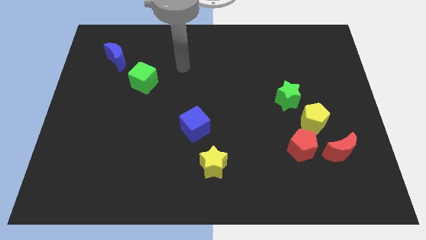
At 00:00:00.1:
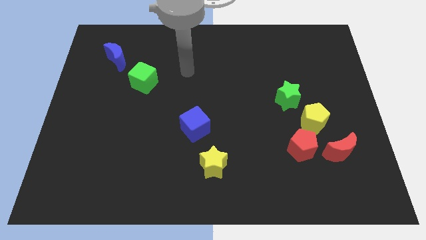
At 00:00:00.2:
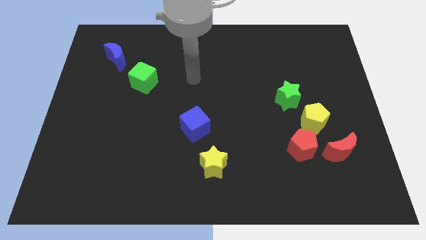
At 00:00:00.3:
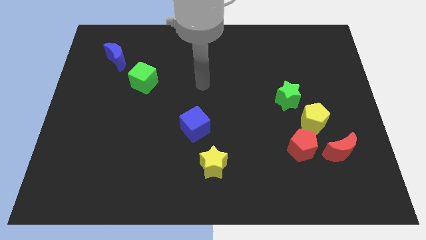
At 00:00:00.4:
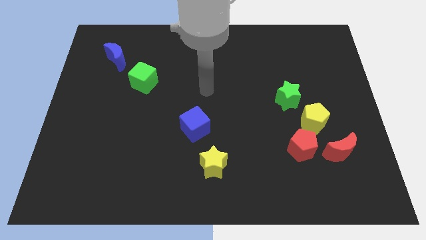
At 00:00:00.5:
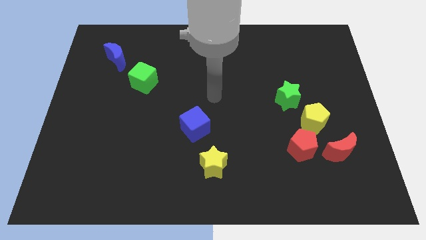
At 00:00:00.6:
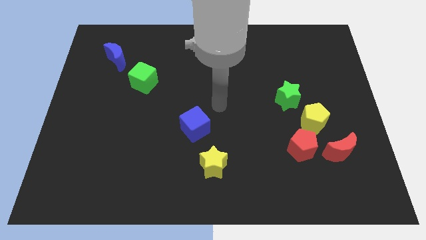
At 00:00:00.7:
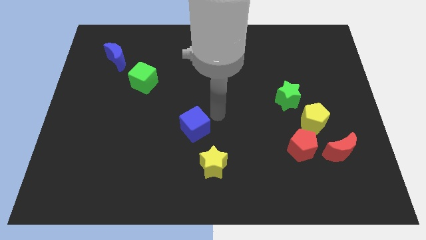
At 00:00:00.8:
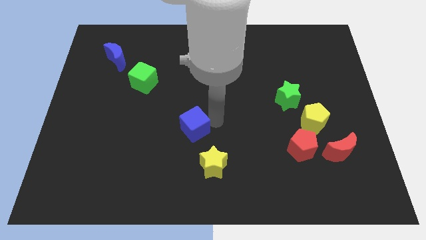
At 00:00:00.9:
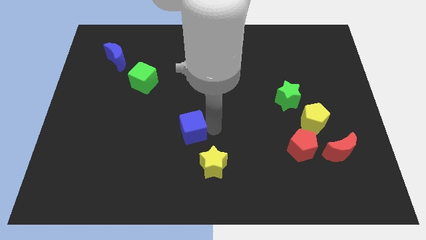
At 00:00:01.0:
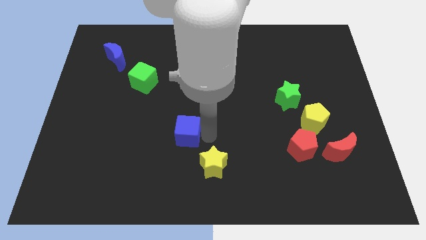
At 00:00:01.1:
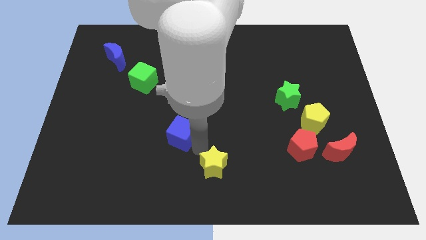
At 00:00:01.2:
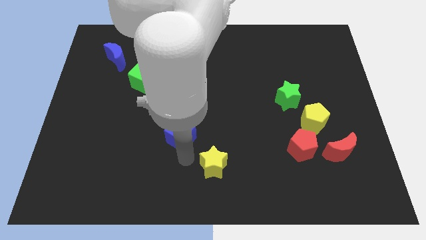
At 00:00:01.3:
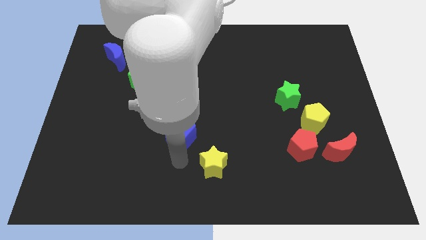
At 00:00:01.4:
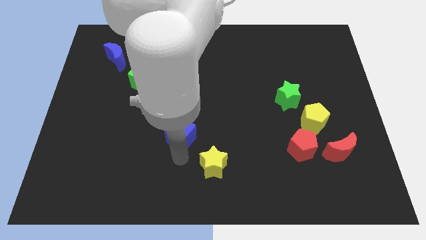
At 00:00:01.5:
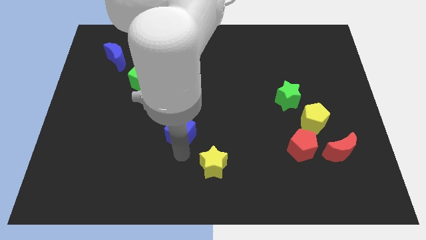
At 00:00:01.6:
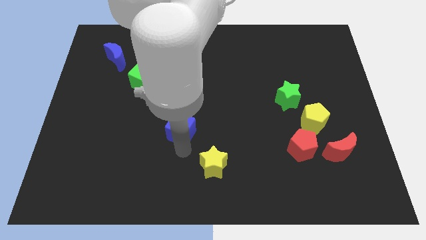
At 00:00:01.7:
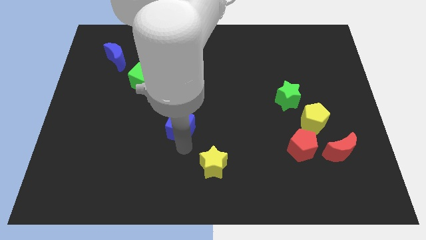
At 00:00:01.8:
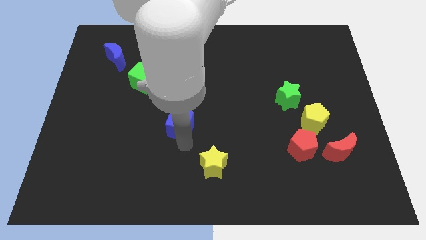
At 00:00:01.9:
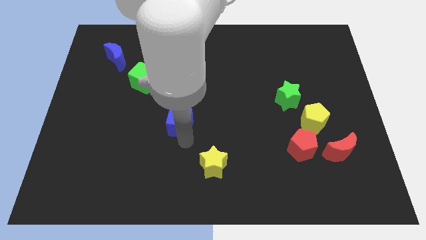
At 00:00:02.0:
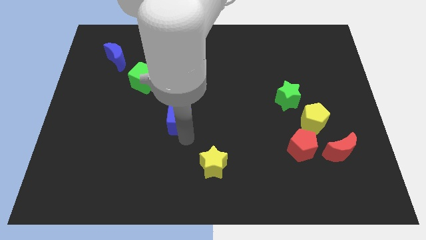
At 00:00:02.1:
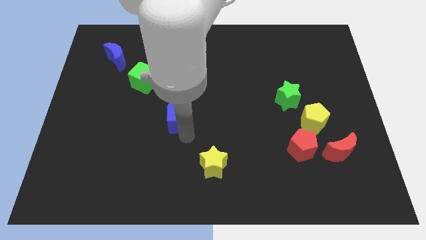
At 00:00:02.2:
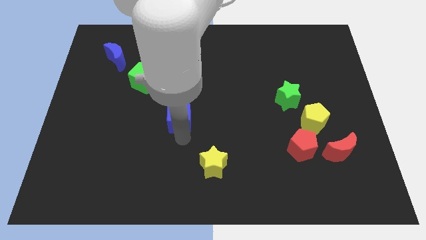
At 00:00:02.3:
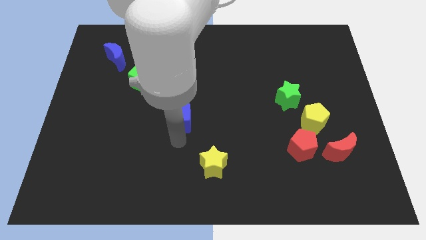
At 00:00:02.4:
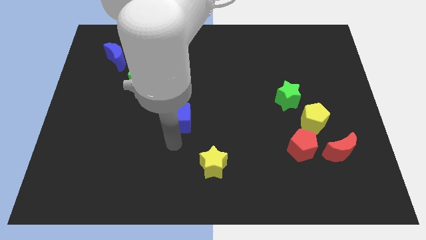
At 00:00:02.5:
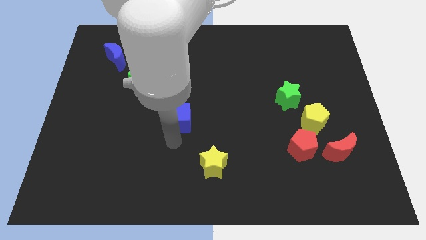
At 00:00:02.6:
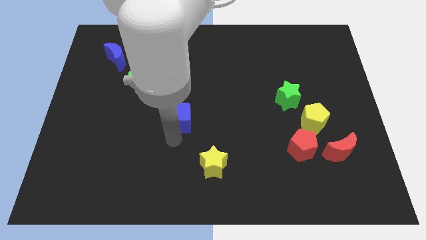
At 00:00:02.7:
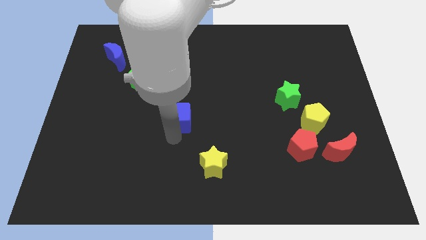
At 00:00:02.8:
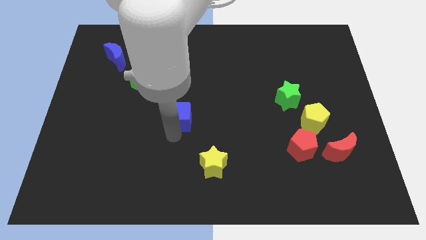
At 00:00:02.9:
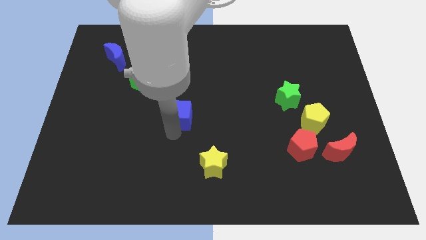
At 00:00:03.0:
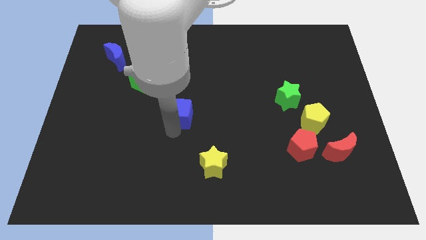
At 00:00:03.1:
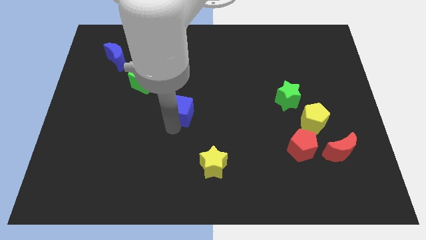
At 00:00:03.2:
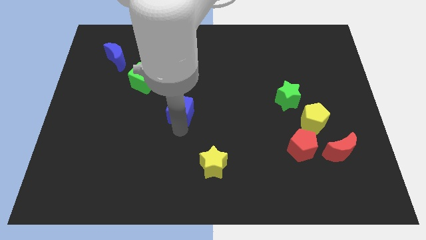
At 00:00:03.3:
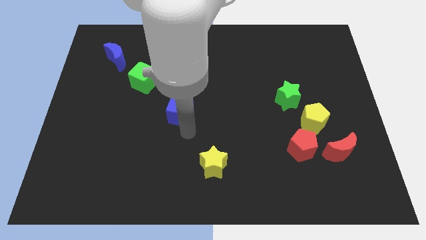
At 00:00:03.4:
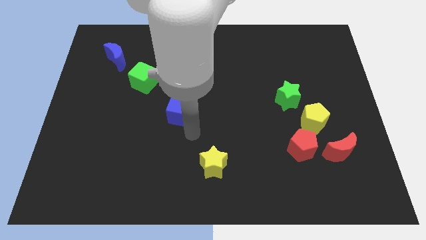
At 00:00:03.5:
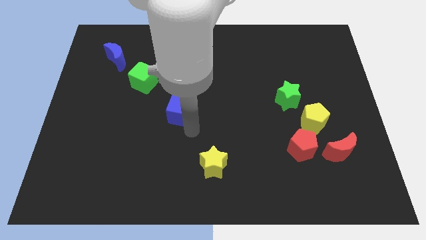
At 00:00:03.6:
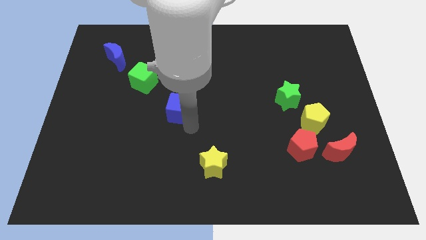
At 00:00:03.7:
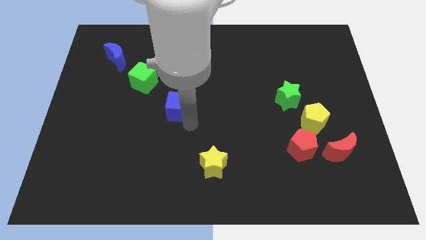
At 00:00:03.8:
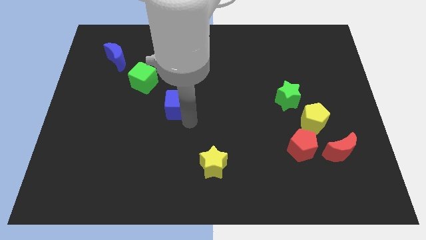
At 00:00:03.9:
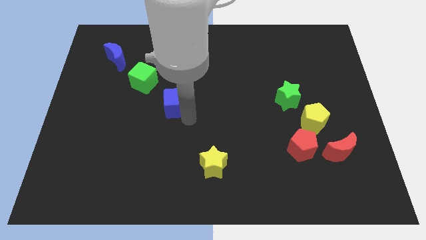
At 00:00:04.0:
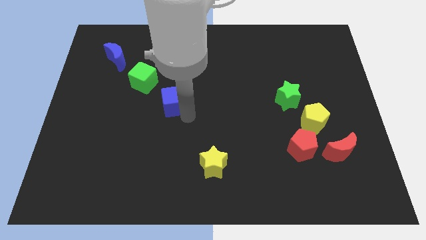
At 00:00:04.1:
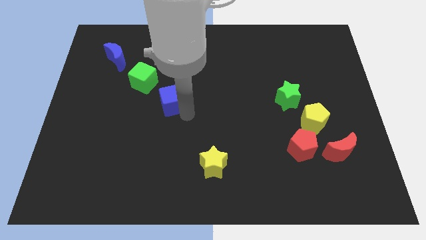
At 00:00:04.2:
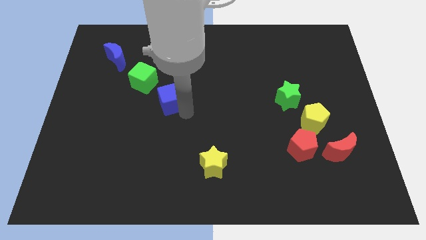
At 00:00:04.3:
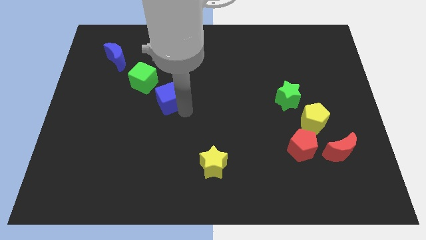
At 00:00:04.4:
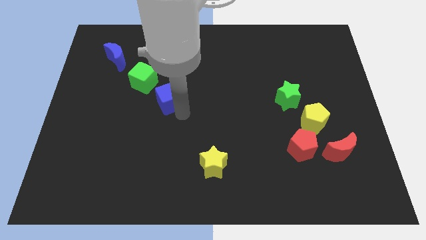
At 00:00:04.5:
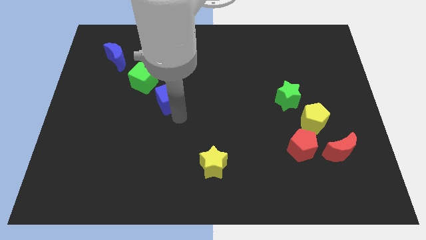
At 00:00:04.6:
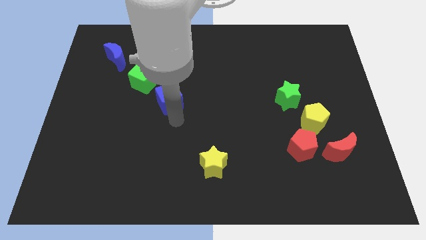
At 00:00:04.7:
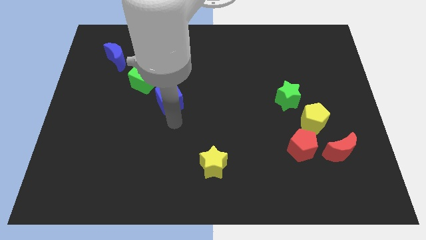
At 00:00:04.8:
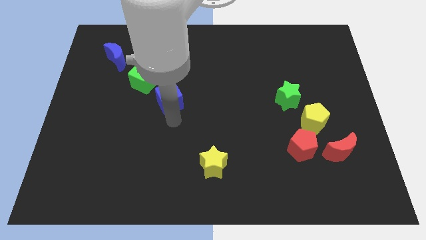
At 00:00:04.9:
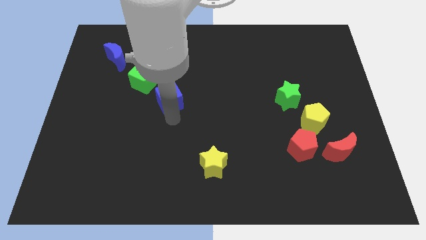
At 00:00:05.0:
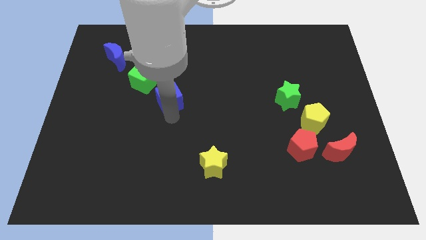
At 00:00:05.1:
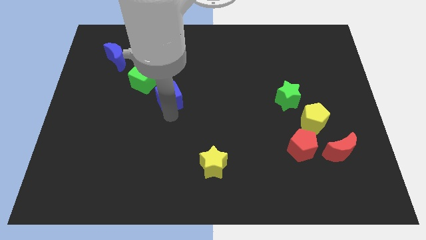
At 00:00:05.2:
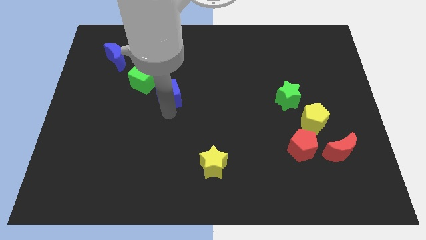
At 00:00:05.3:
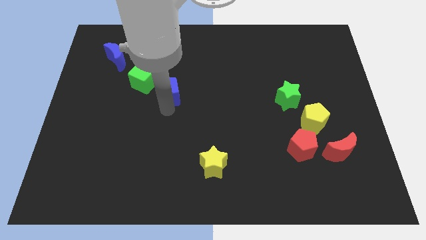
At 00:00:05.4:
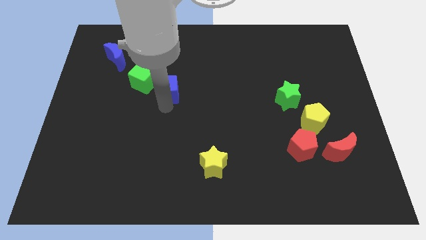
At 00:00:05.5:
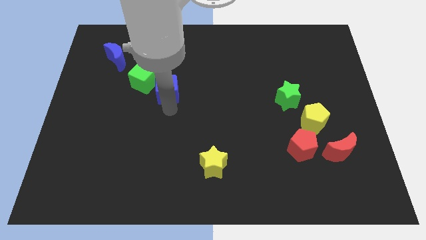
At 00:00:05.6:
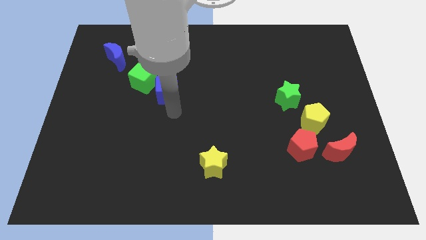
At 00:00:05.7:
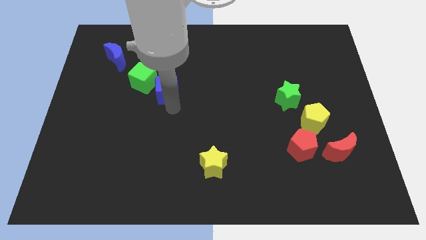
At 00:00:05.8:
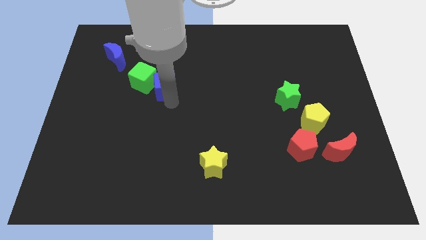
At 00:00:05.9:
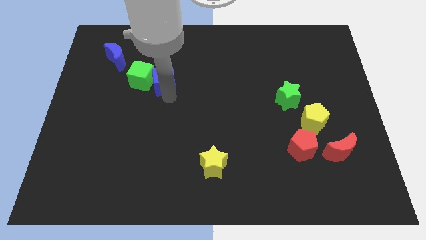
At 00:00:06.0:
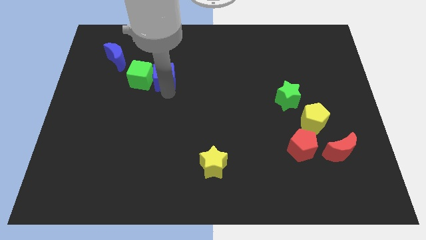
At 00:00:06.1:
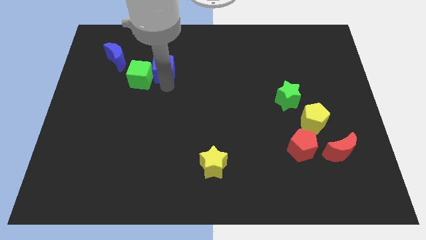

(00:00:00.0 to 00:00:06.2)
push the blue cube right of the blue moon

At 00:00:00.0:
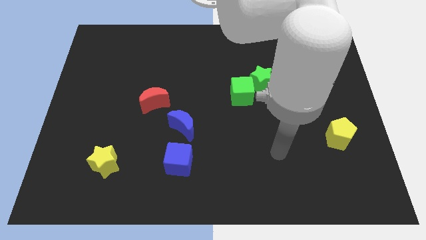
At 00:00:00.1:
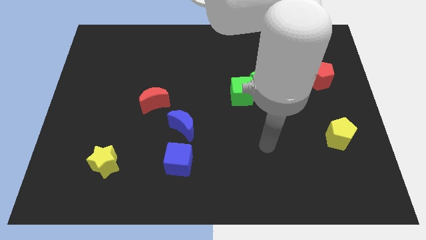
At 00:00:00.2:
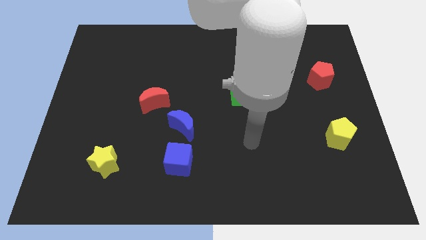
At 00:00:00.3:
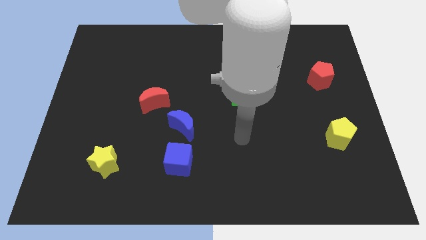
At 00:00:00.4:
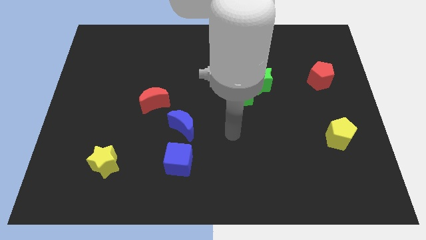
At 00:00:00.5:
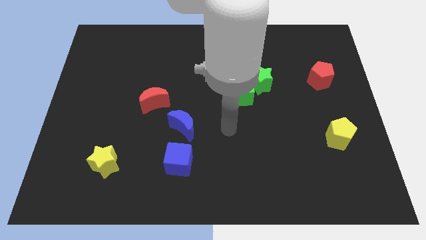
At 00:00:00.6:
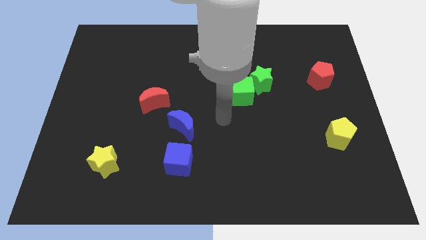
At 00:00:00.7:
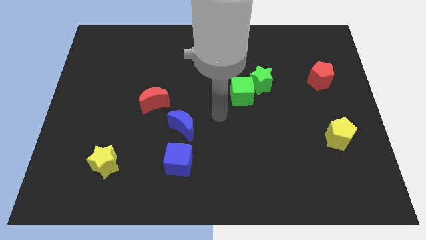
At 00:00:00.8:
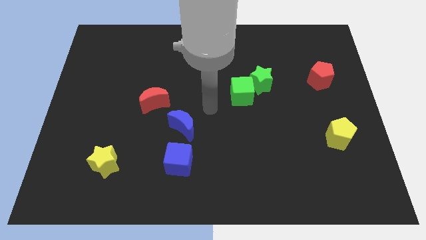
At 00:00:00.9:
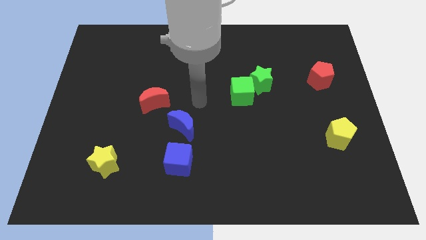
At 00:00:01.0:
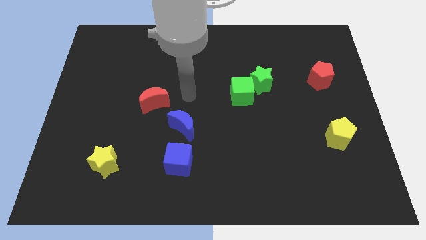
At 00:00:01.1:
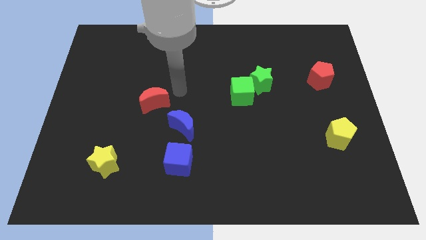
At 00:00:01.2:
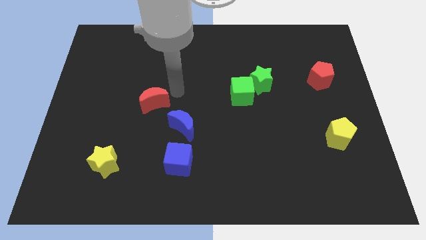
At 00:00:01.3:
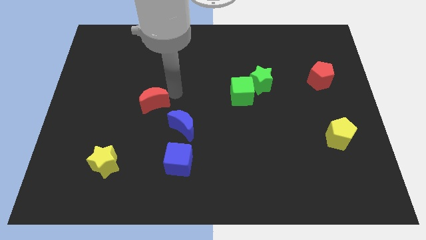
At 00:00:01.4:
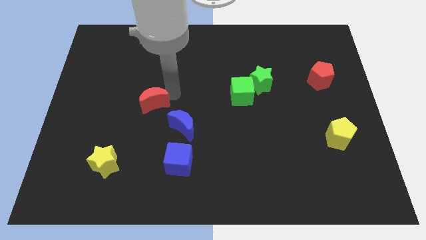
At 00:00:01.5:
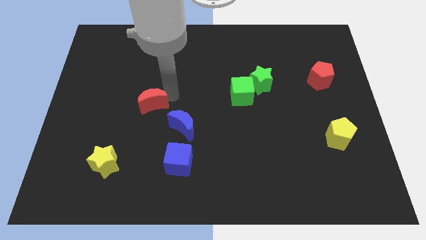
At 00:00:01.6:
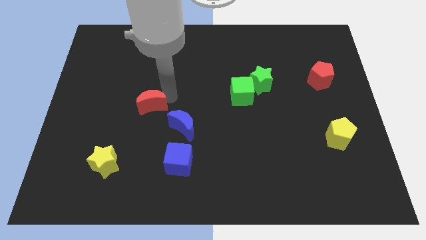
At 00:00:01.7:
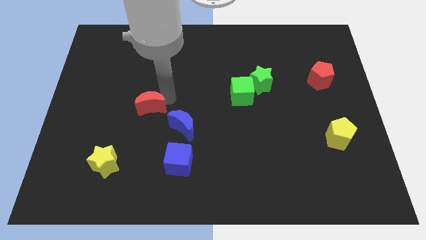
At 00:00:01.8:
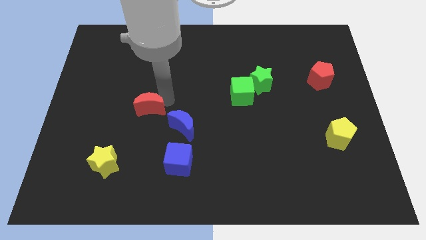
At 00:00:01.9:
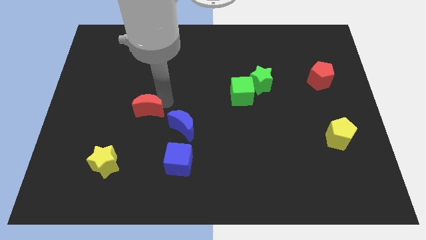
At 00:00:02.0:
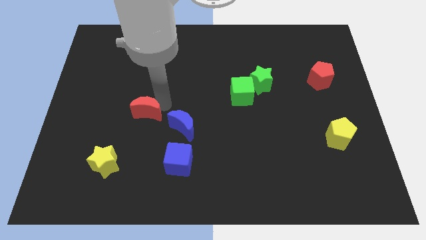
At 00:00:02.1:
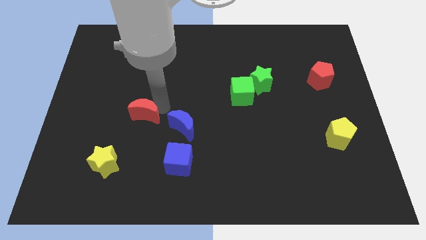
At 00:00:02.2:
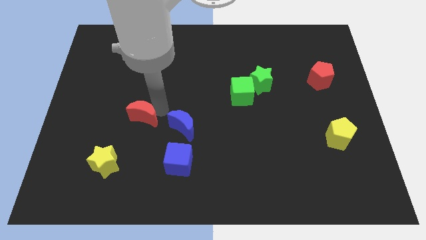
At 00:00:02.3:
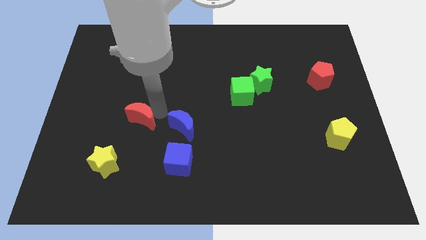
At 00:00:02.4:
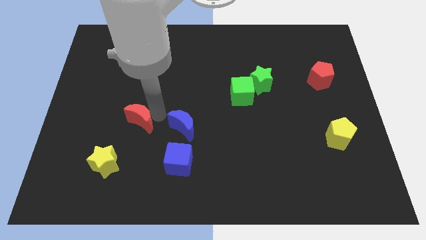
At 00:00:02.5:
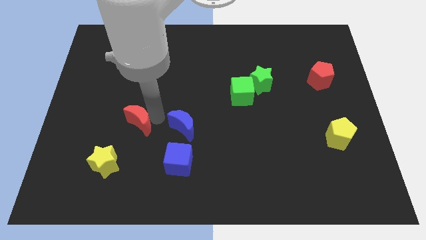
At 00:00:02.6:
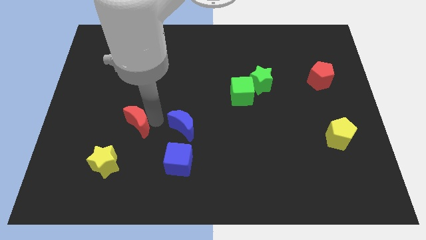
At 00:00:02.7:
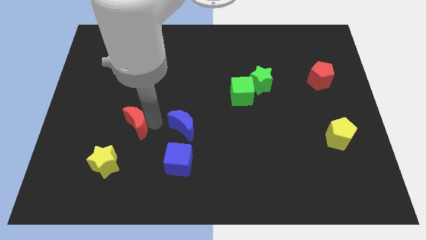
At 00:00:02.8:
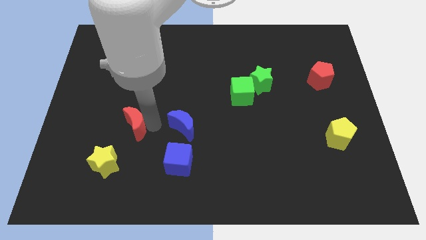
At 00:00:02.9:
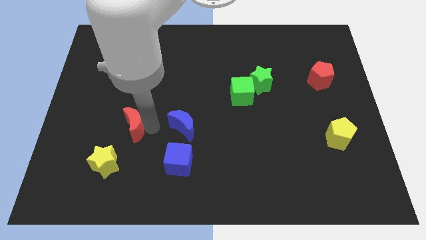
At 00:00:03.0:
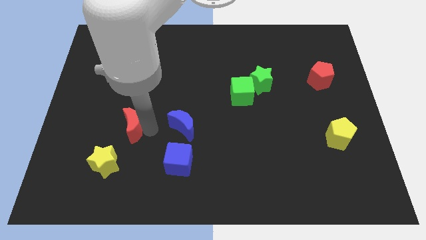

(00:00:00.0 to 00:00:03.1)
move the red moon above the yellow star
